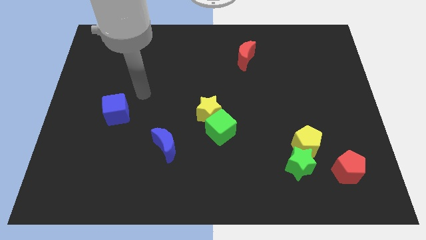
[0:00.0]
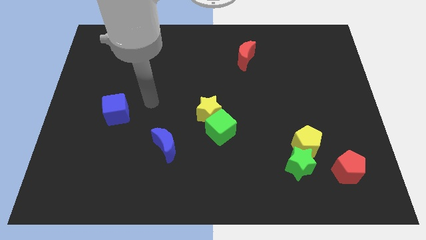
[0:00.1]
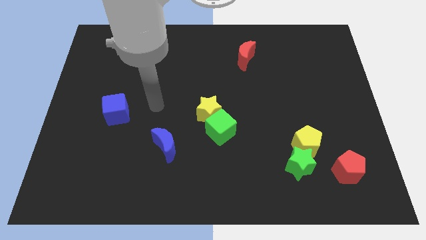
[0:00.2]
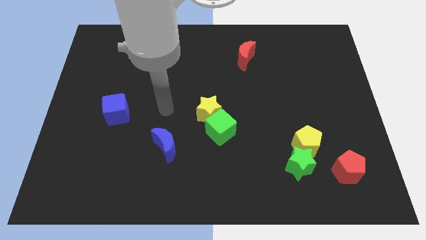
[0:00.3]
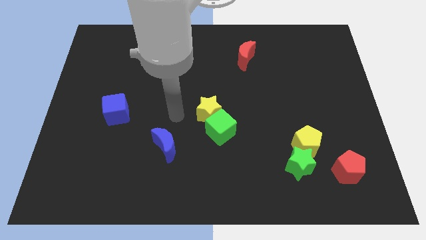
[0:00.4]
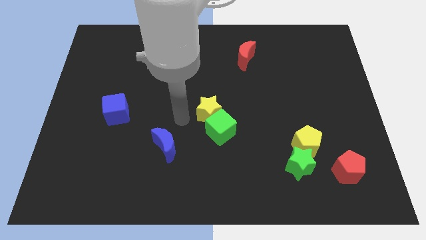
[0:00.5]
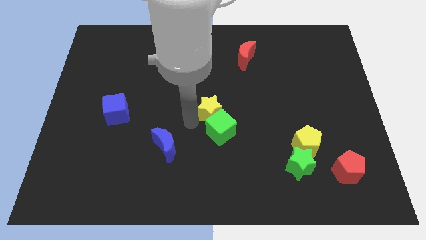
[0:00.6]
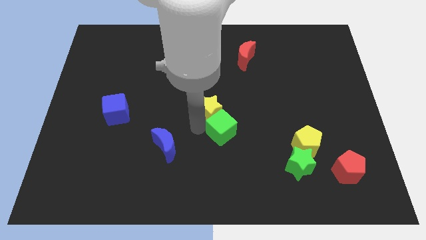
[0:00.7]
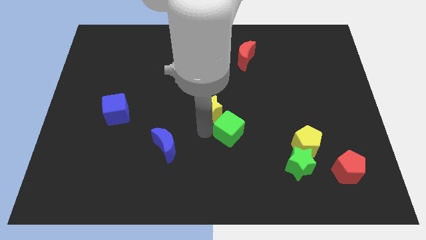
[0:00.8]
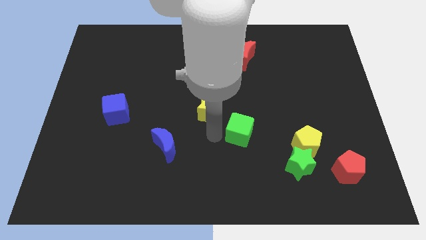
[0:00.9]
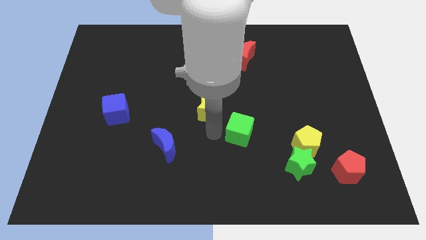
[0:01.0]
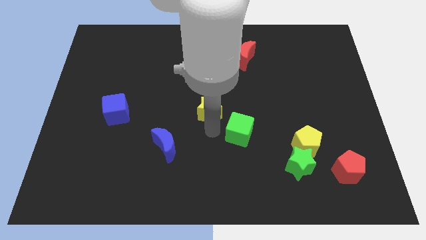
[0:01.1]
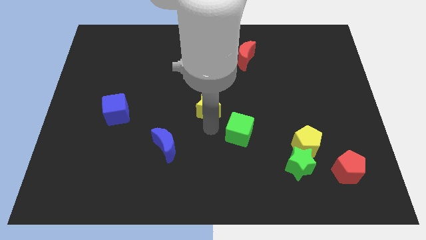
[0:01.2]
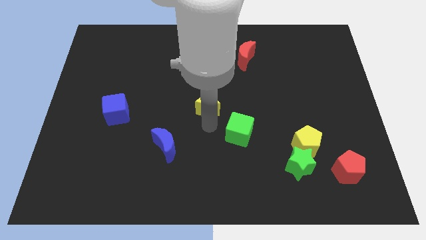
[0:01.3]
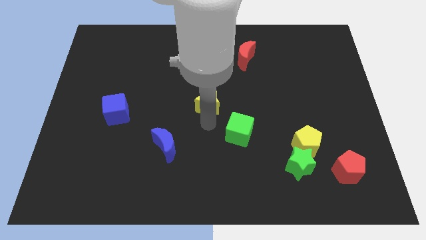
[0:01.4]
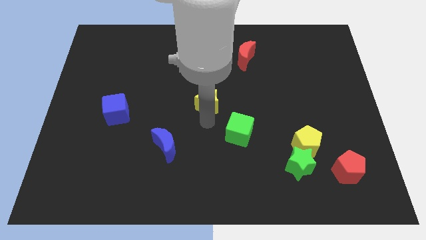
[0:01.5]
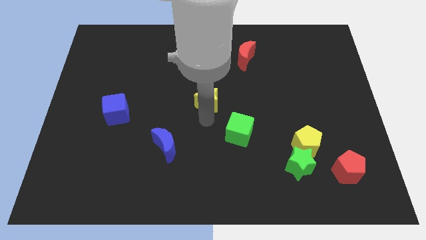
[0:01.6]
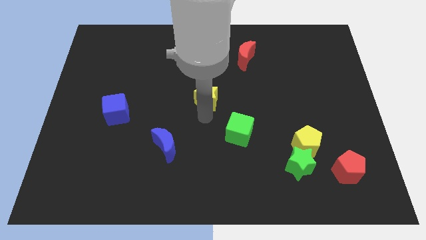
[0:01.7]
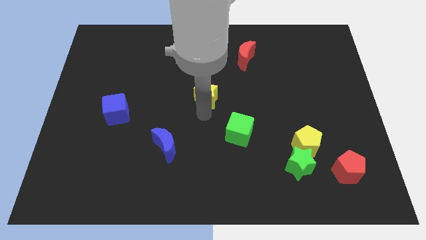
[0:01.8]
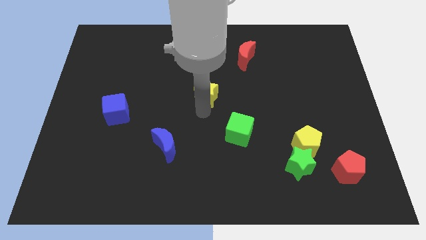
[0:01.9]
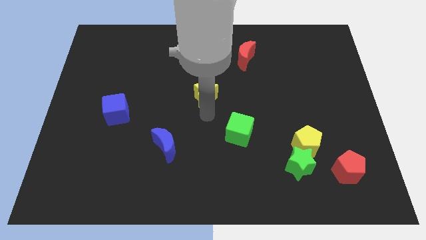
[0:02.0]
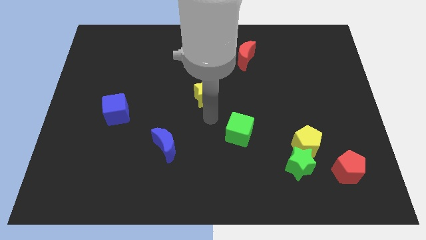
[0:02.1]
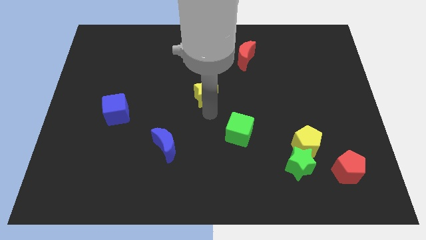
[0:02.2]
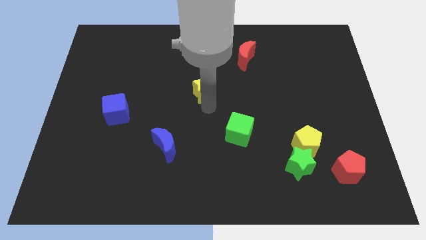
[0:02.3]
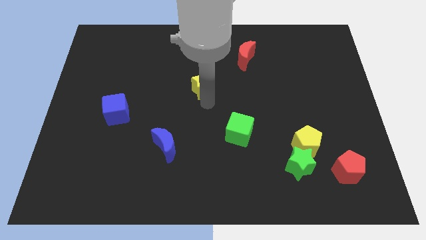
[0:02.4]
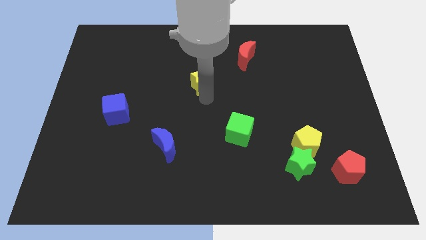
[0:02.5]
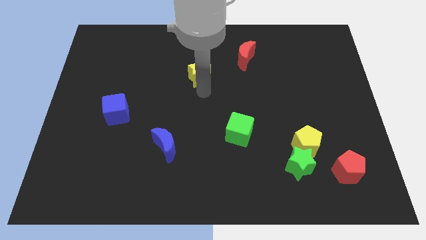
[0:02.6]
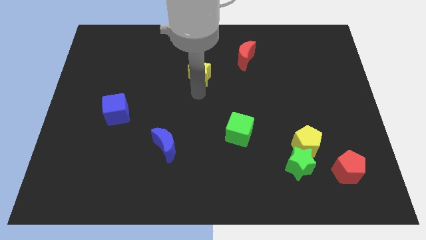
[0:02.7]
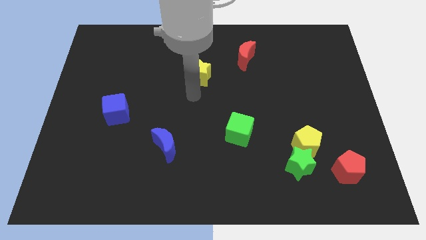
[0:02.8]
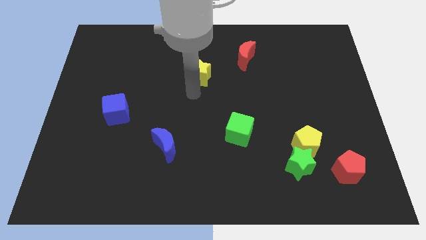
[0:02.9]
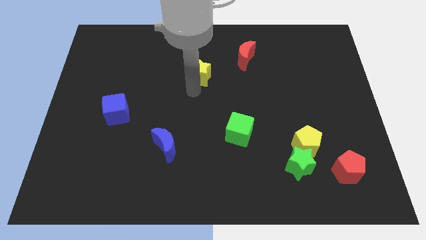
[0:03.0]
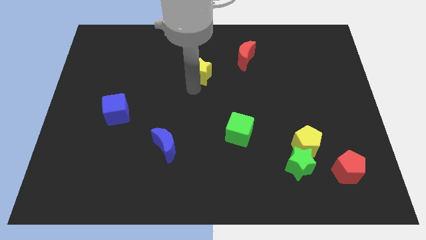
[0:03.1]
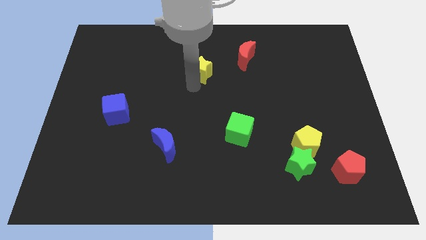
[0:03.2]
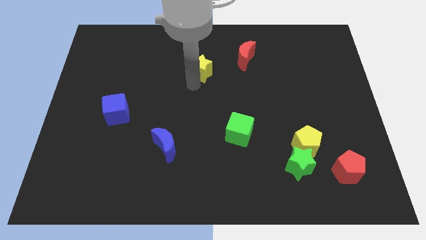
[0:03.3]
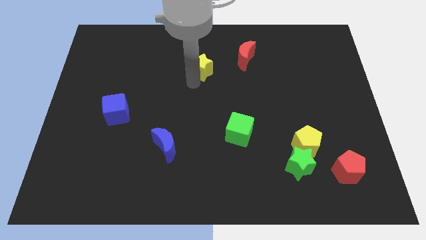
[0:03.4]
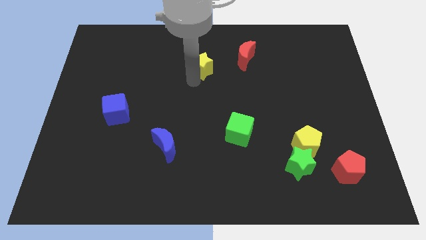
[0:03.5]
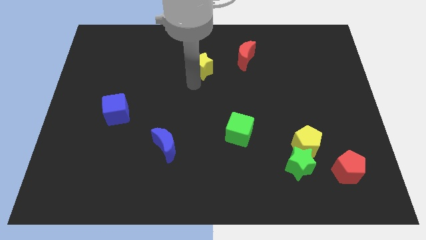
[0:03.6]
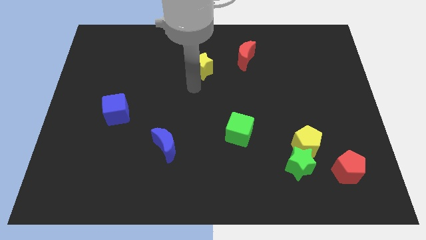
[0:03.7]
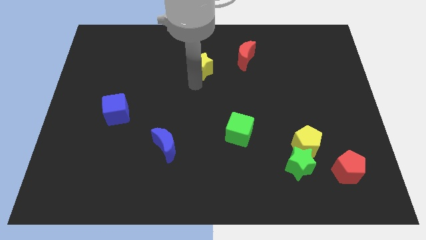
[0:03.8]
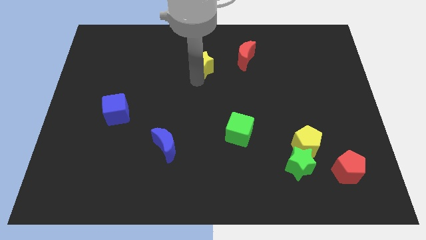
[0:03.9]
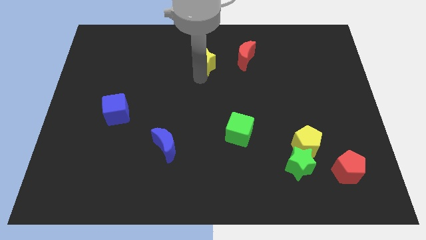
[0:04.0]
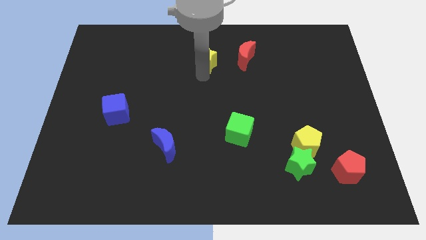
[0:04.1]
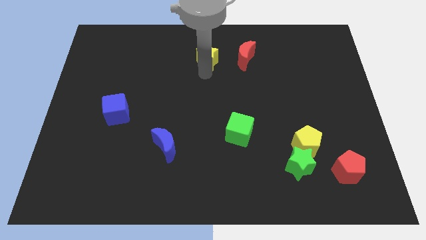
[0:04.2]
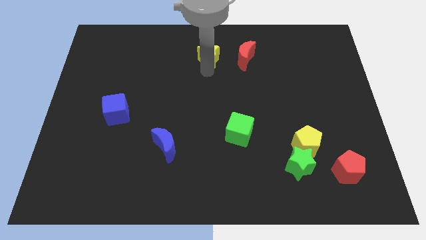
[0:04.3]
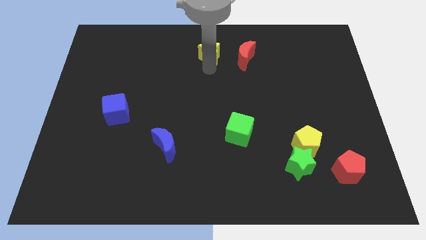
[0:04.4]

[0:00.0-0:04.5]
push the yellow star to the top side

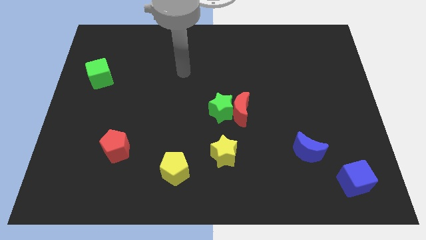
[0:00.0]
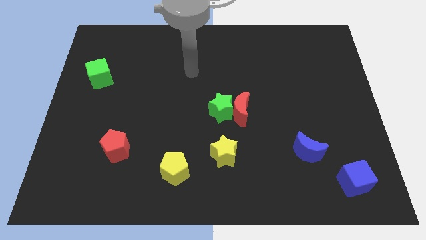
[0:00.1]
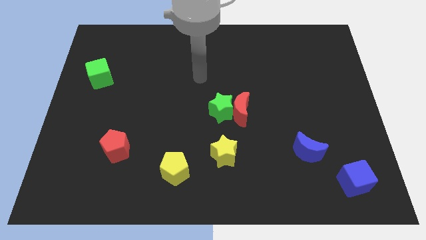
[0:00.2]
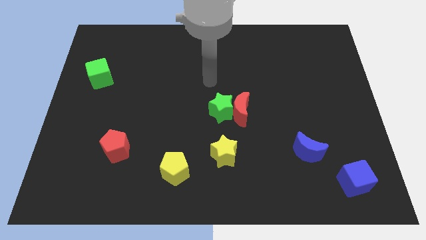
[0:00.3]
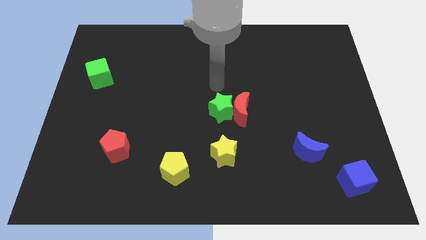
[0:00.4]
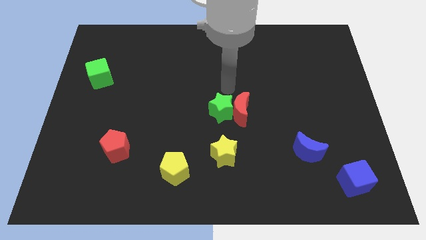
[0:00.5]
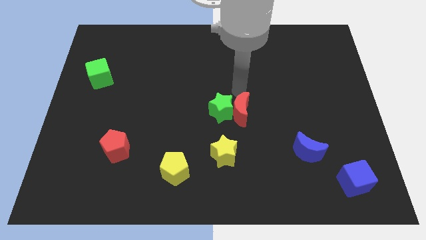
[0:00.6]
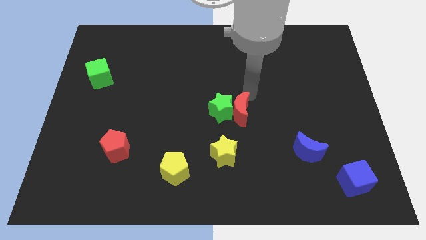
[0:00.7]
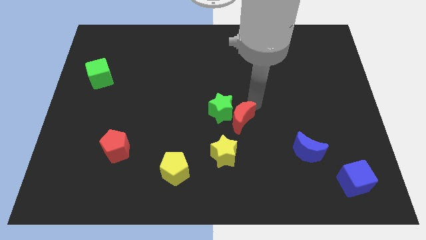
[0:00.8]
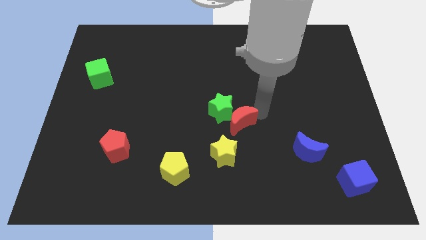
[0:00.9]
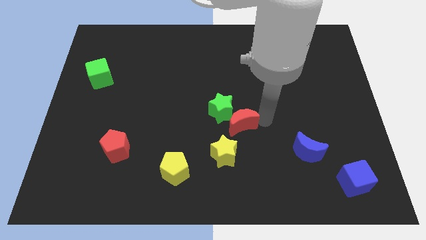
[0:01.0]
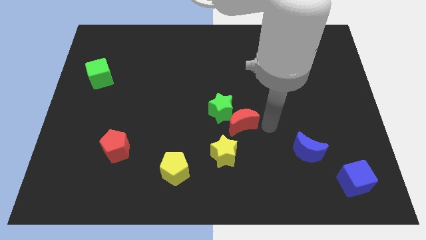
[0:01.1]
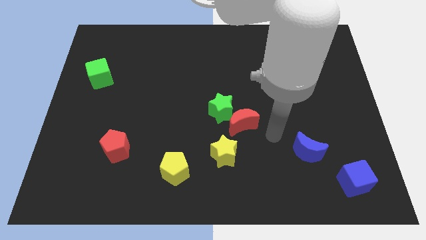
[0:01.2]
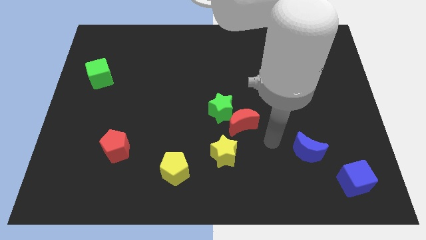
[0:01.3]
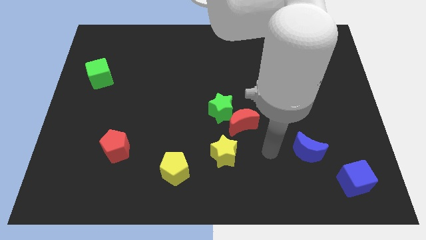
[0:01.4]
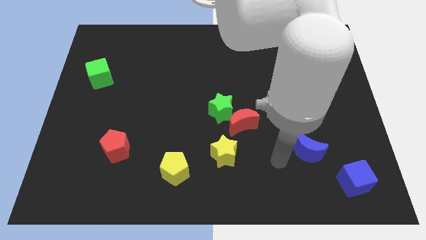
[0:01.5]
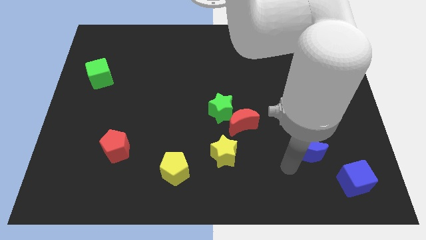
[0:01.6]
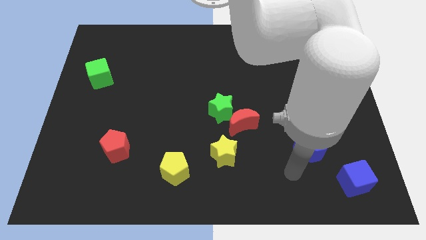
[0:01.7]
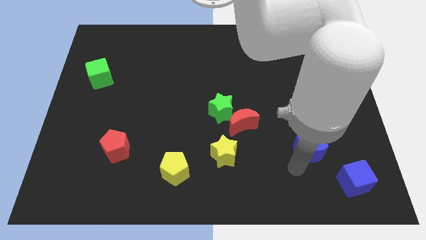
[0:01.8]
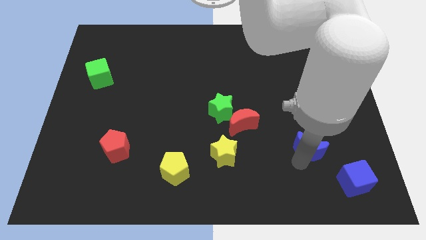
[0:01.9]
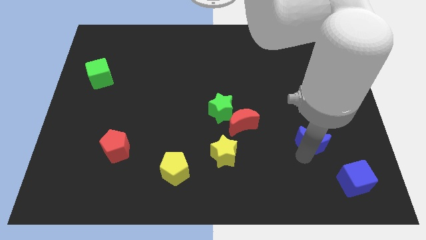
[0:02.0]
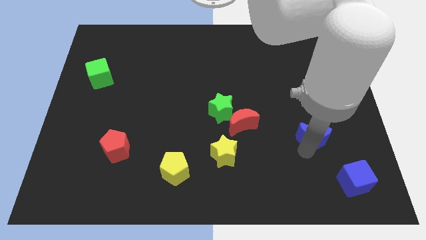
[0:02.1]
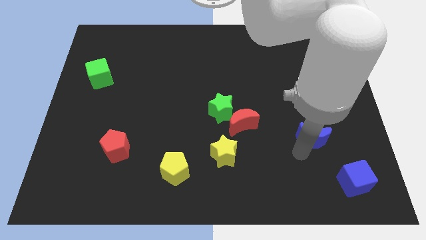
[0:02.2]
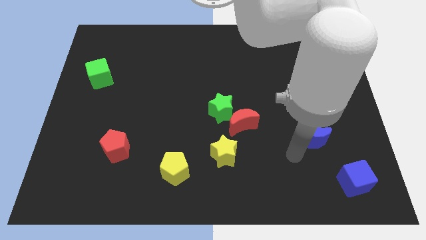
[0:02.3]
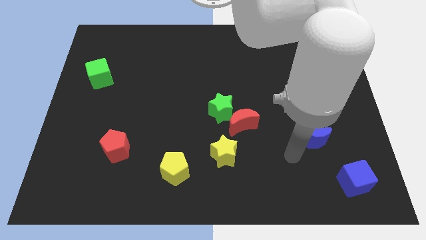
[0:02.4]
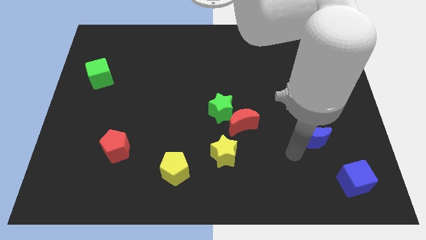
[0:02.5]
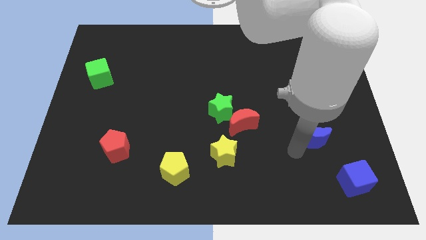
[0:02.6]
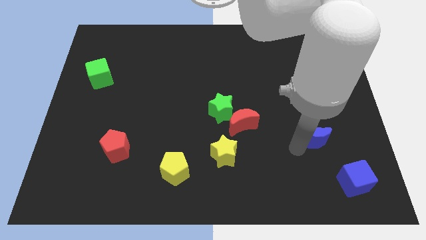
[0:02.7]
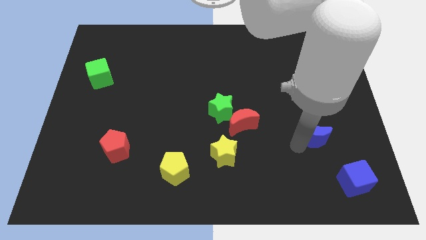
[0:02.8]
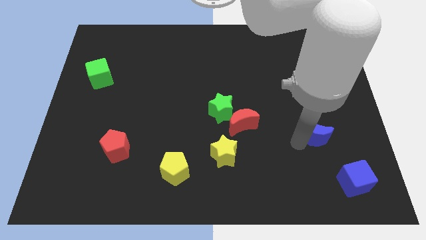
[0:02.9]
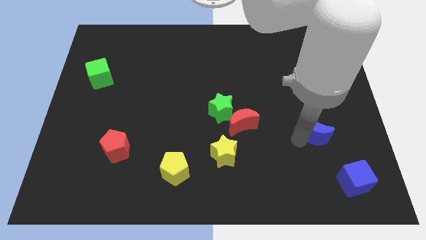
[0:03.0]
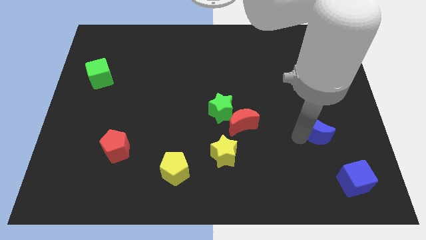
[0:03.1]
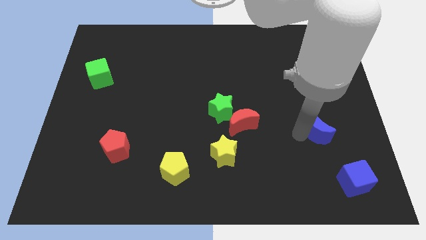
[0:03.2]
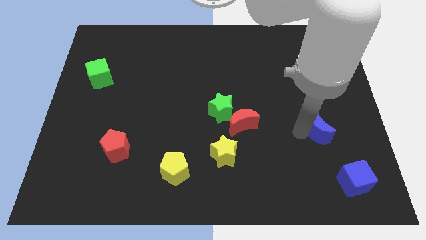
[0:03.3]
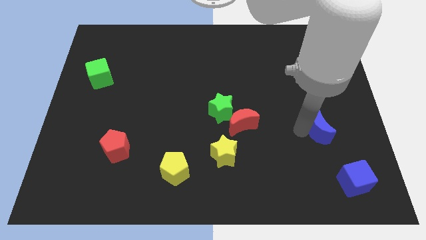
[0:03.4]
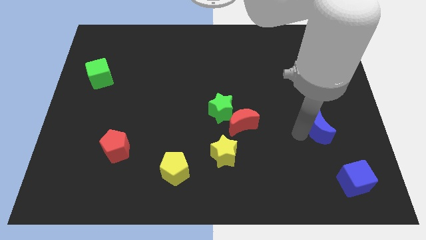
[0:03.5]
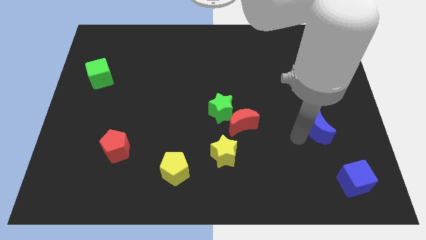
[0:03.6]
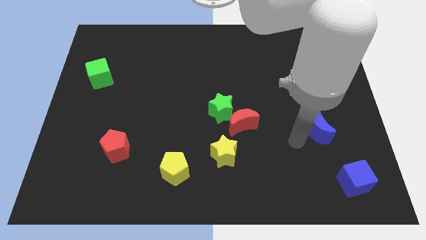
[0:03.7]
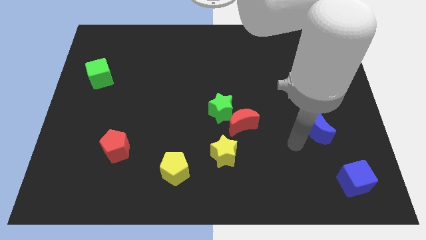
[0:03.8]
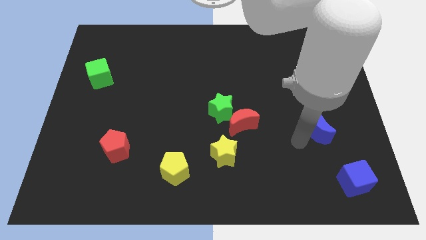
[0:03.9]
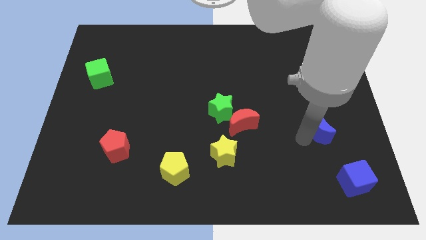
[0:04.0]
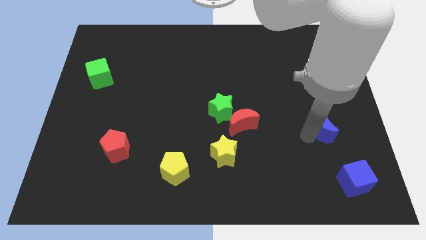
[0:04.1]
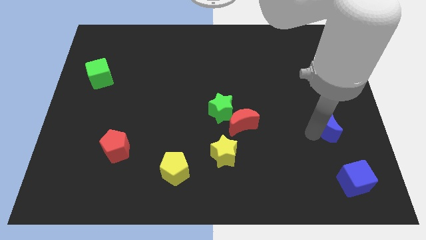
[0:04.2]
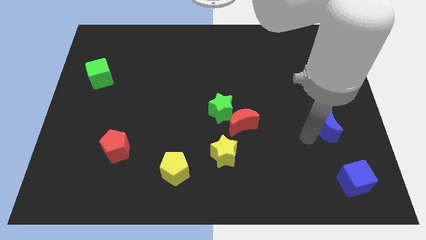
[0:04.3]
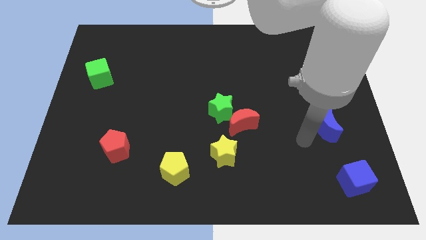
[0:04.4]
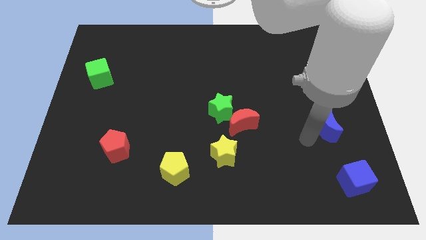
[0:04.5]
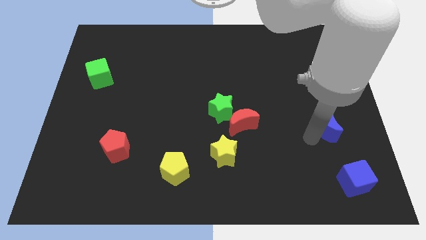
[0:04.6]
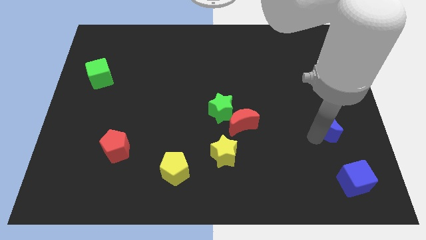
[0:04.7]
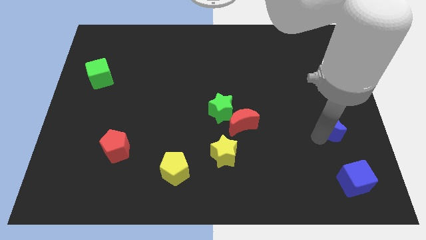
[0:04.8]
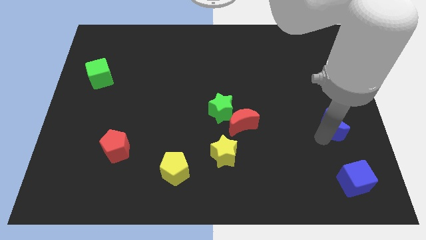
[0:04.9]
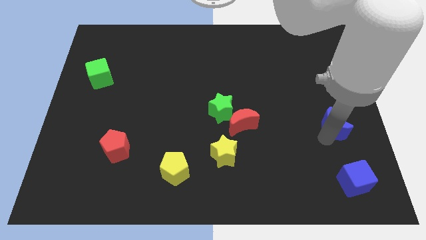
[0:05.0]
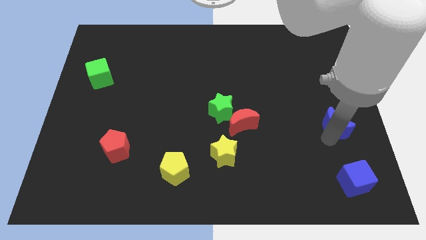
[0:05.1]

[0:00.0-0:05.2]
move the blue moon to the right side
